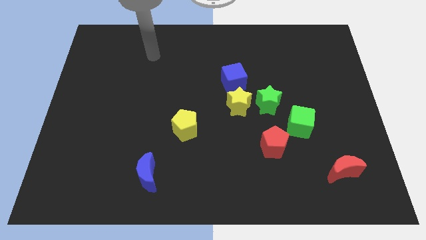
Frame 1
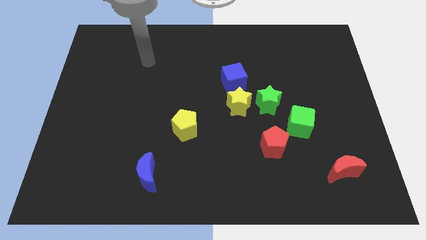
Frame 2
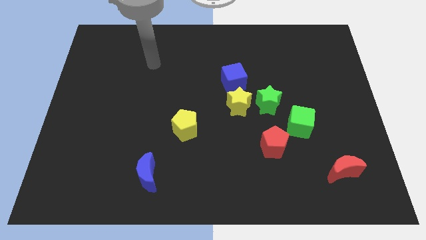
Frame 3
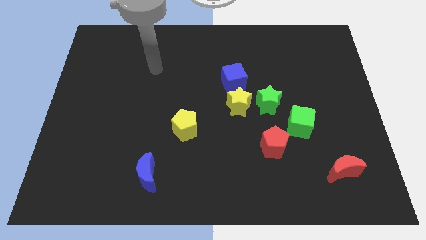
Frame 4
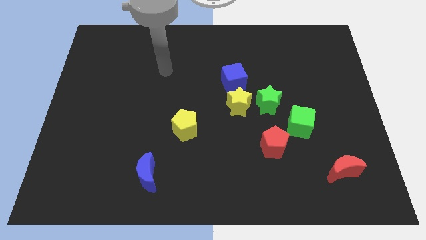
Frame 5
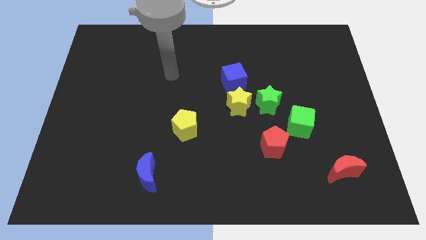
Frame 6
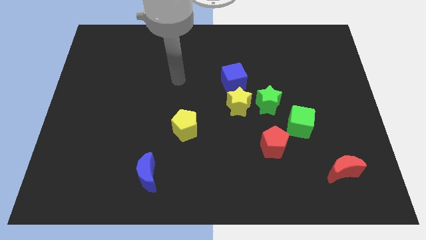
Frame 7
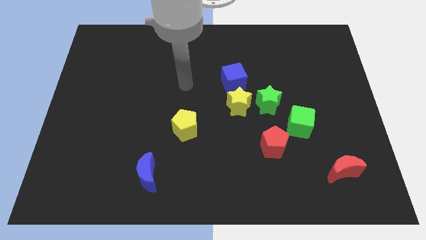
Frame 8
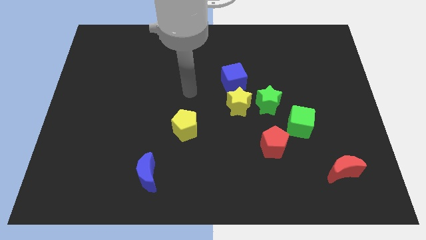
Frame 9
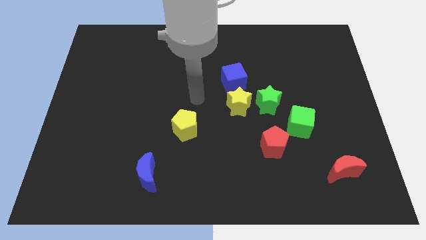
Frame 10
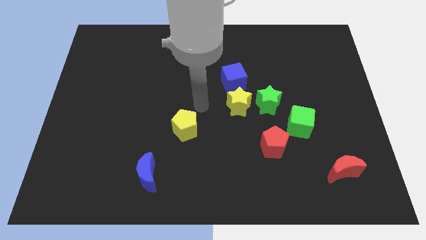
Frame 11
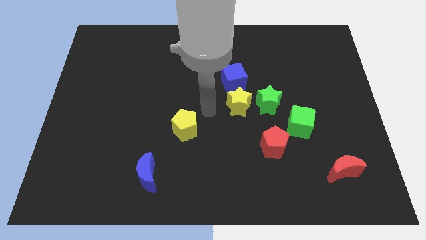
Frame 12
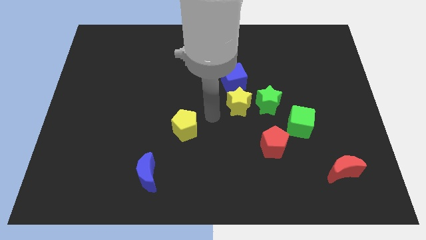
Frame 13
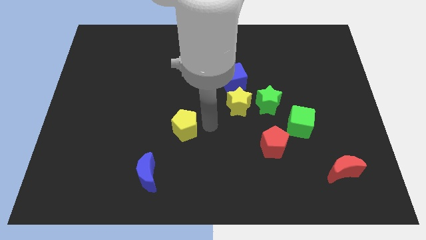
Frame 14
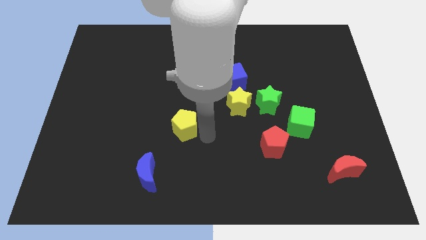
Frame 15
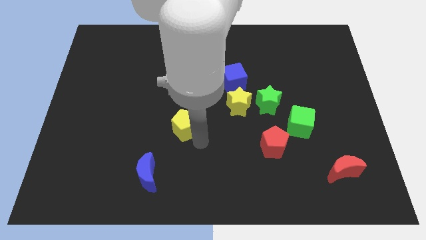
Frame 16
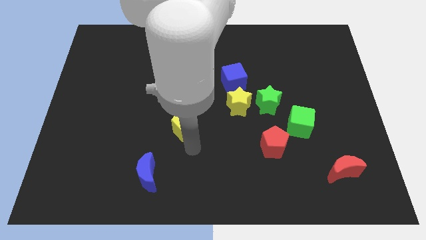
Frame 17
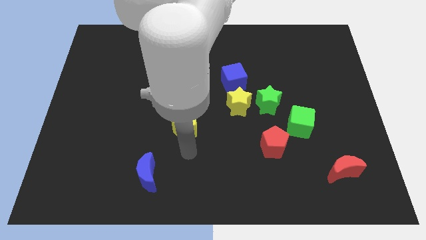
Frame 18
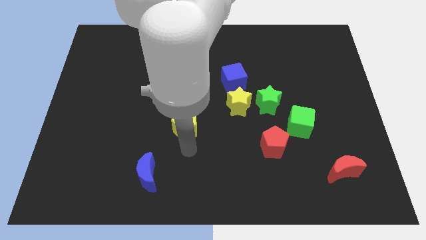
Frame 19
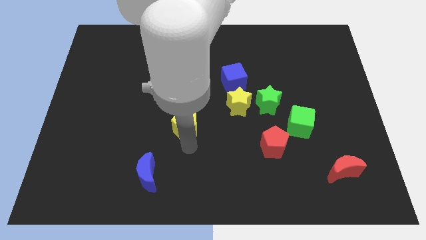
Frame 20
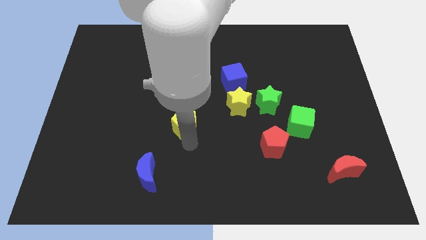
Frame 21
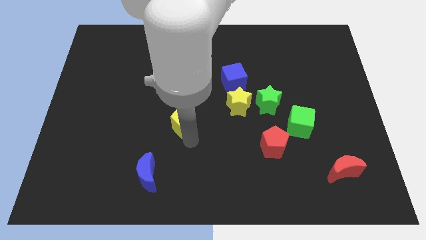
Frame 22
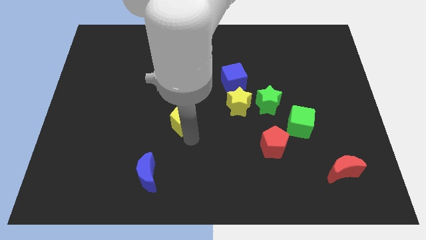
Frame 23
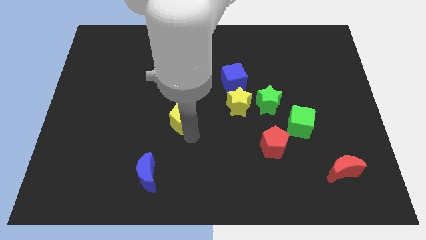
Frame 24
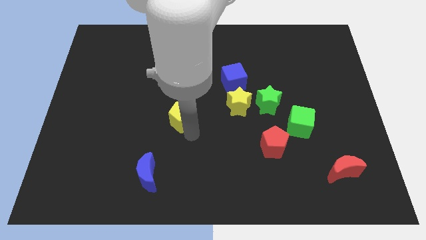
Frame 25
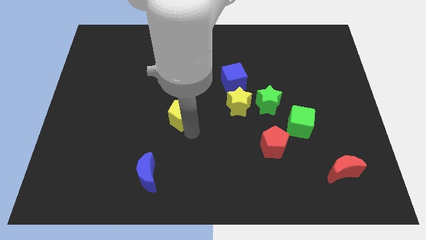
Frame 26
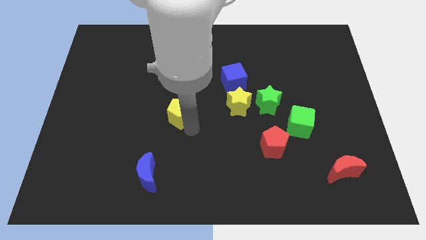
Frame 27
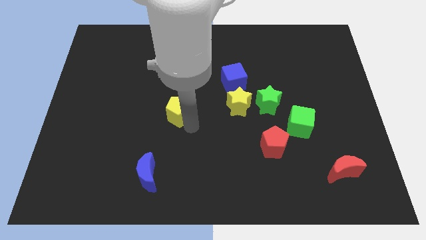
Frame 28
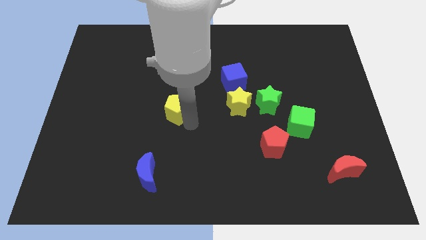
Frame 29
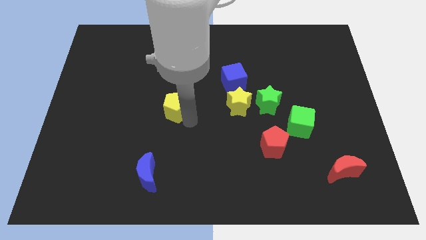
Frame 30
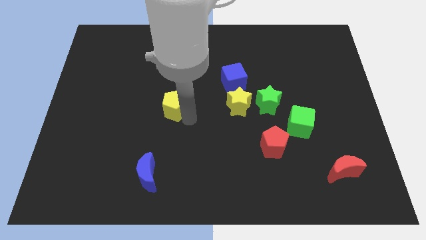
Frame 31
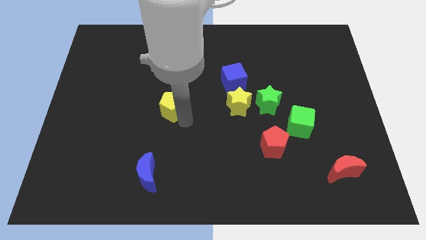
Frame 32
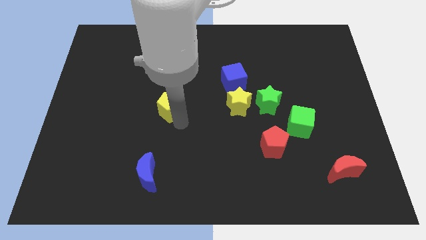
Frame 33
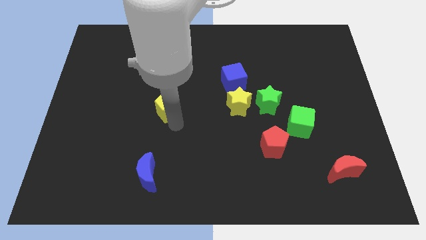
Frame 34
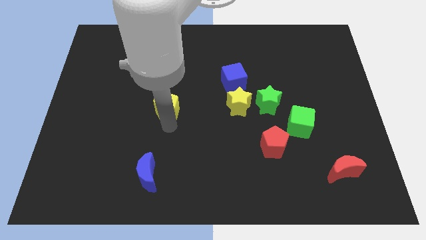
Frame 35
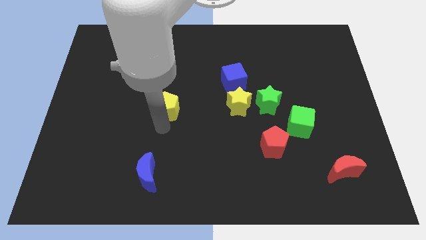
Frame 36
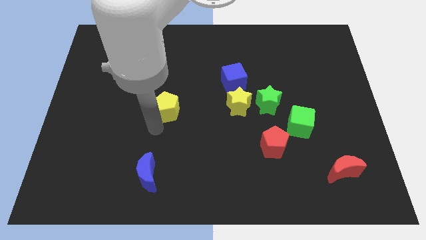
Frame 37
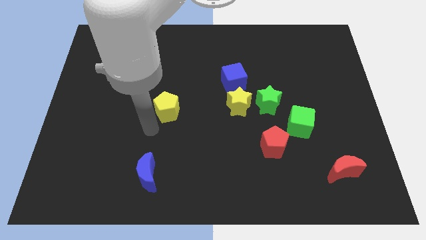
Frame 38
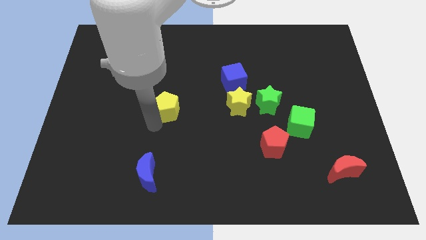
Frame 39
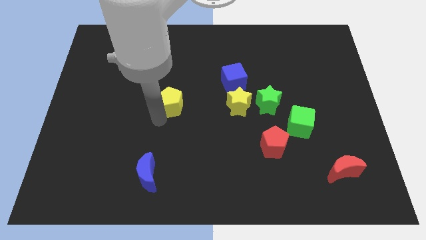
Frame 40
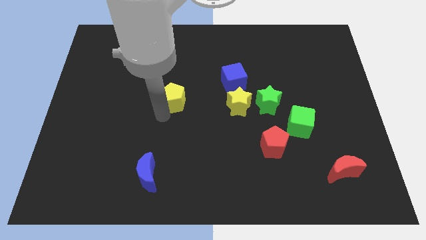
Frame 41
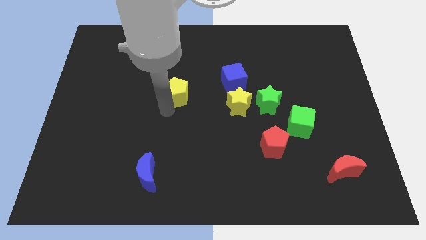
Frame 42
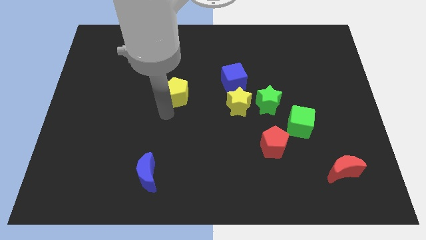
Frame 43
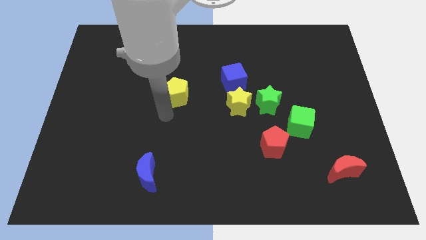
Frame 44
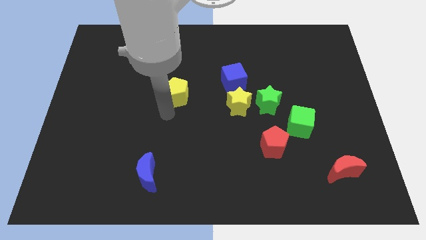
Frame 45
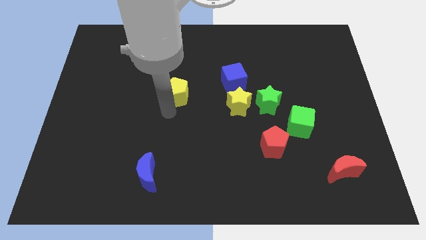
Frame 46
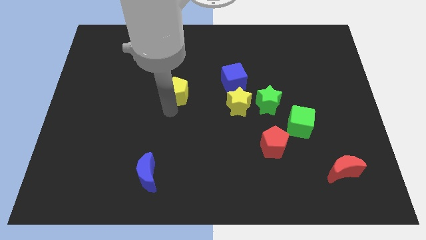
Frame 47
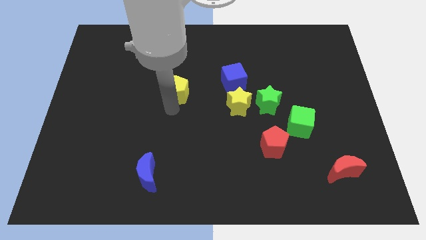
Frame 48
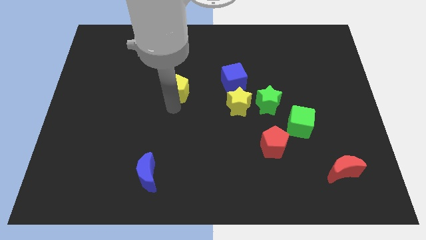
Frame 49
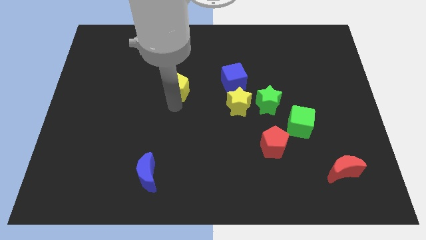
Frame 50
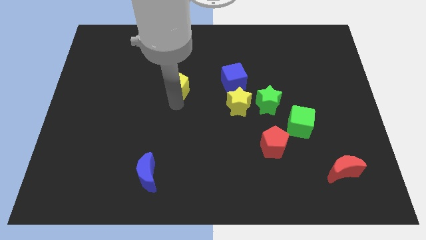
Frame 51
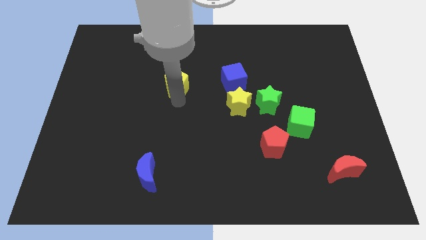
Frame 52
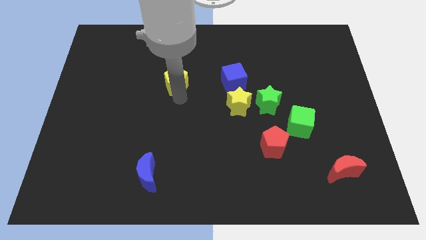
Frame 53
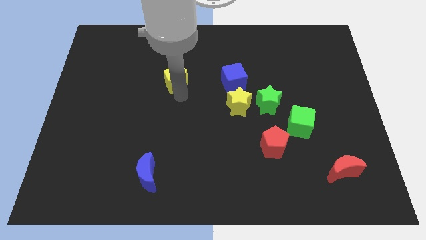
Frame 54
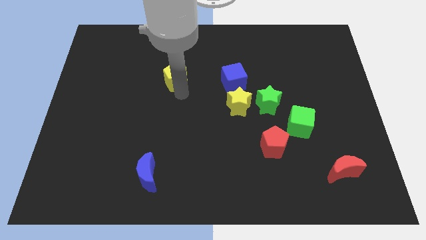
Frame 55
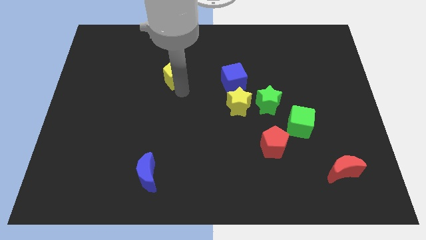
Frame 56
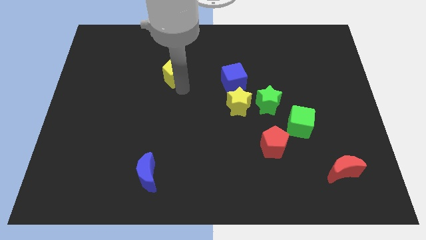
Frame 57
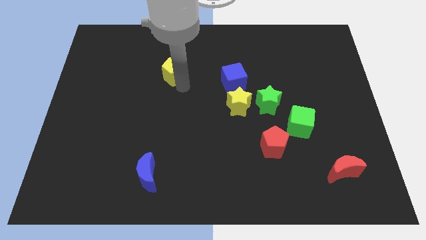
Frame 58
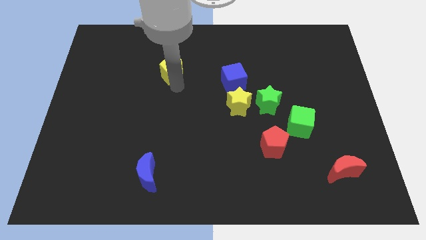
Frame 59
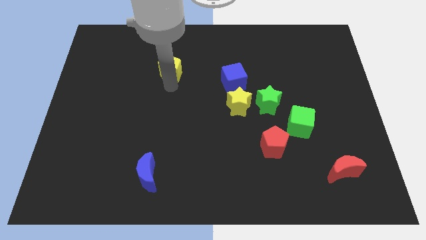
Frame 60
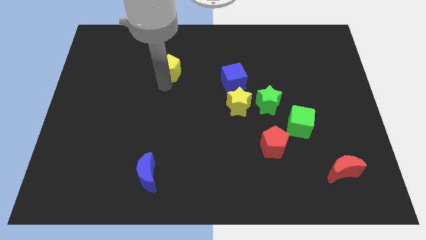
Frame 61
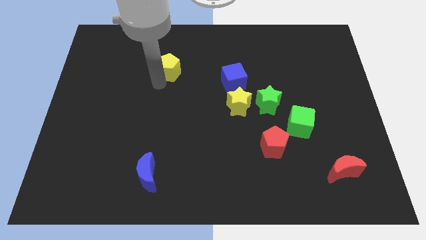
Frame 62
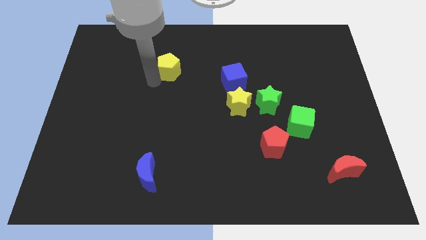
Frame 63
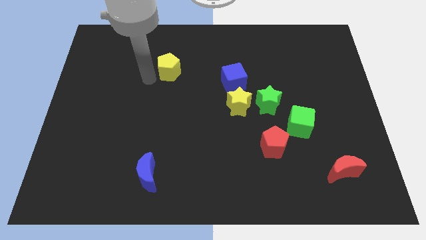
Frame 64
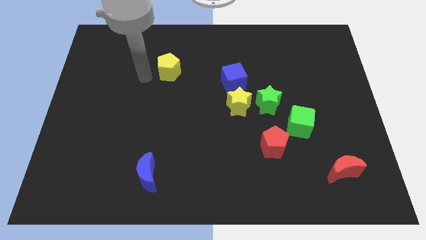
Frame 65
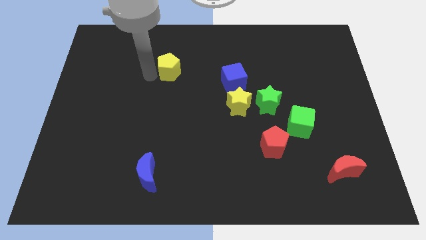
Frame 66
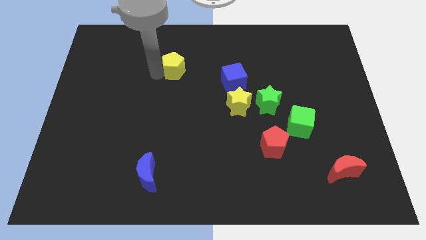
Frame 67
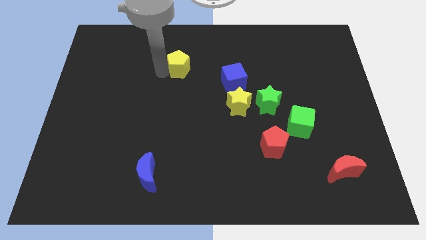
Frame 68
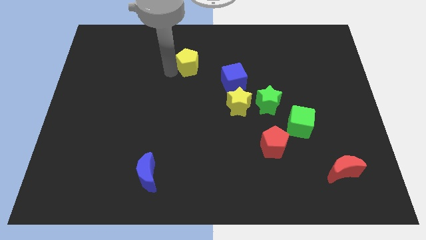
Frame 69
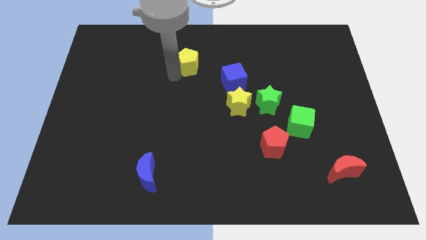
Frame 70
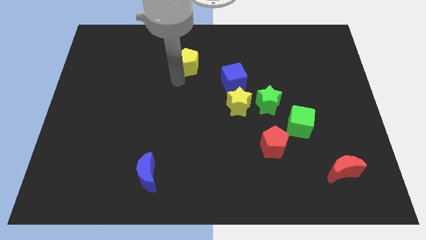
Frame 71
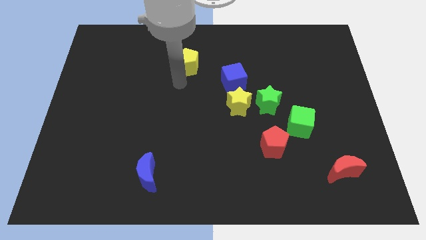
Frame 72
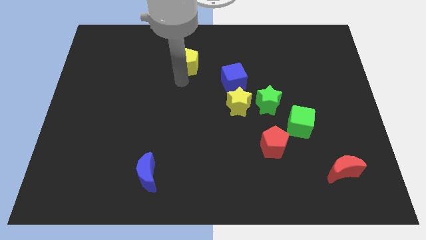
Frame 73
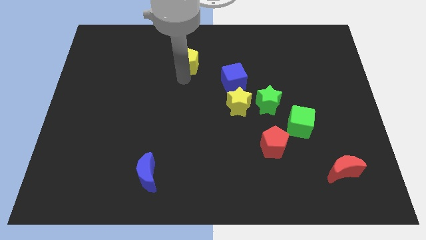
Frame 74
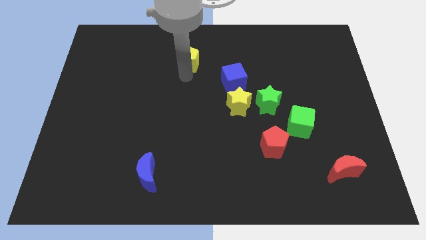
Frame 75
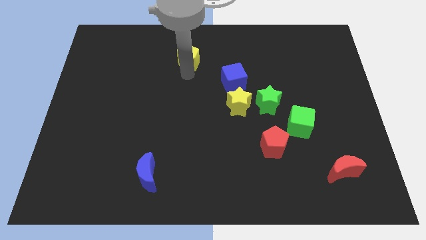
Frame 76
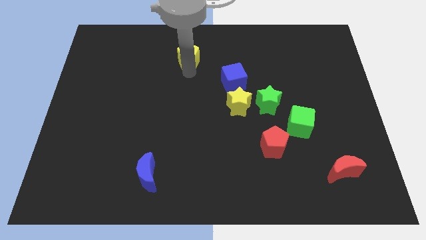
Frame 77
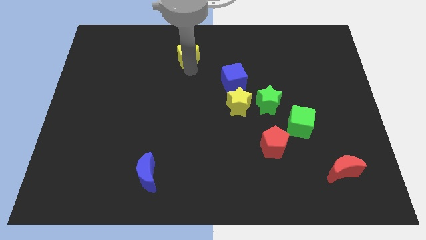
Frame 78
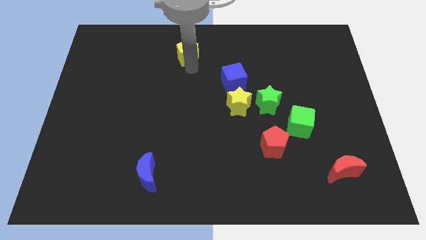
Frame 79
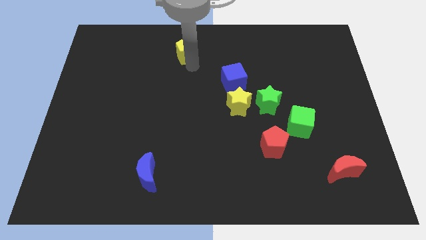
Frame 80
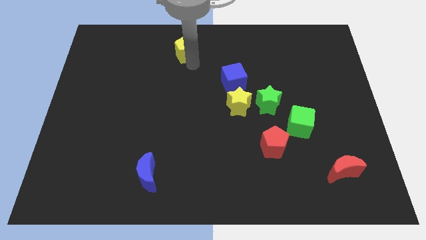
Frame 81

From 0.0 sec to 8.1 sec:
move the yellow pentagon to the top
